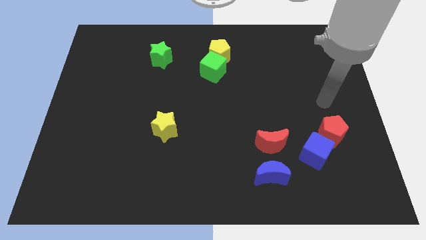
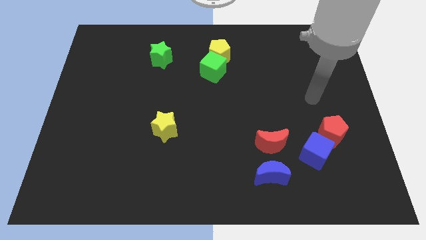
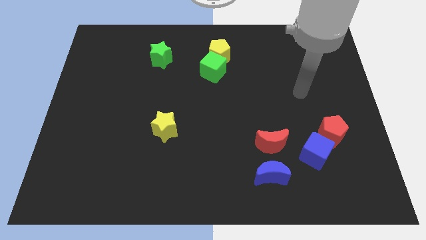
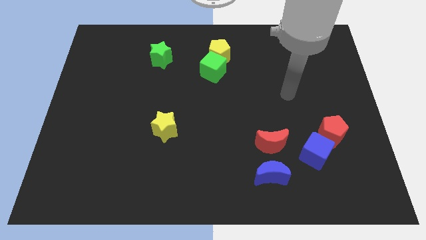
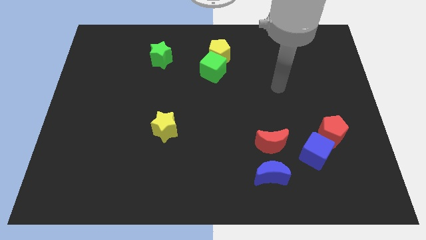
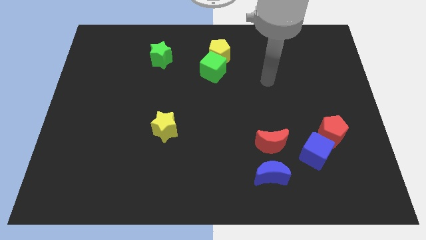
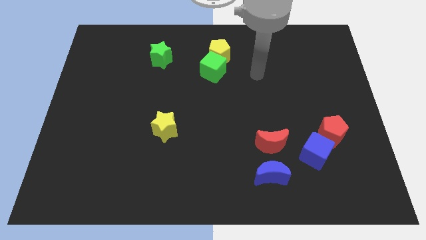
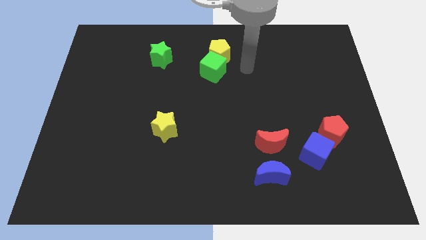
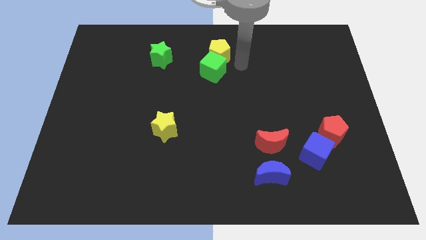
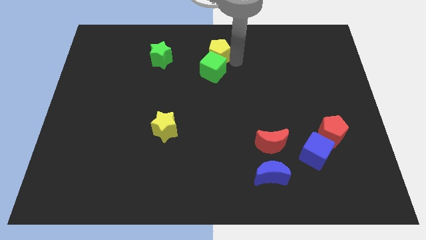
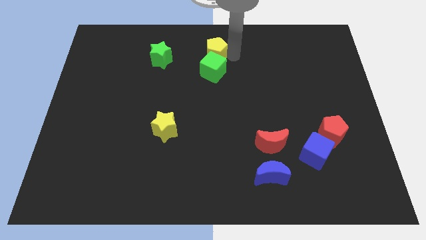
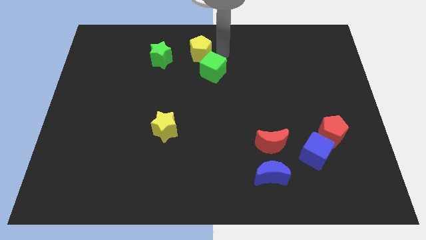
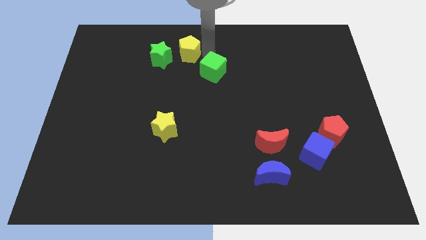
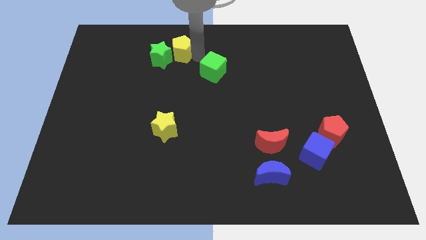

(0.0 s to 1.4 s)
pull the green cube apart from the yellow pentagon

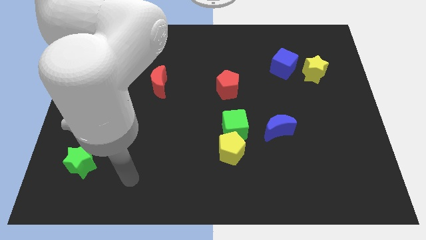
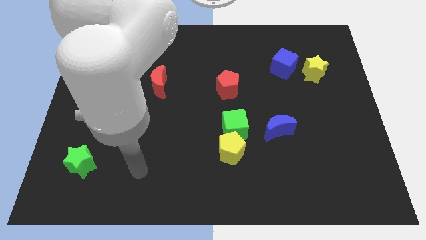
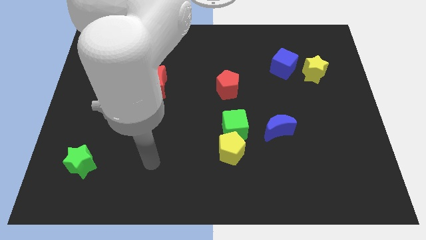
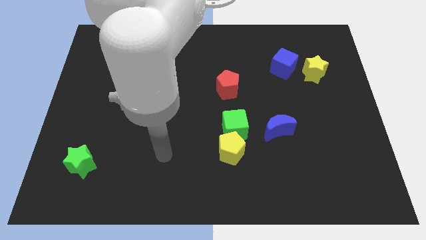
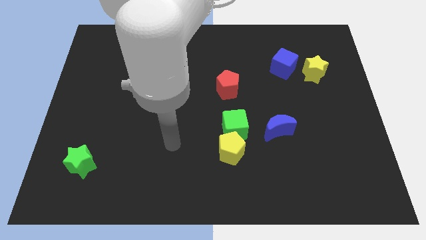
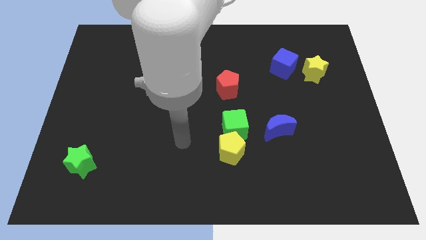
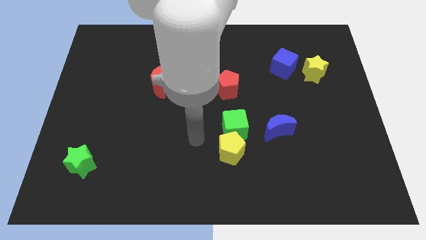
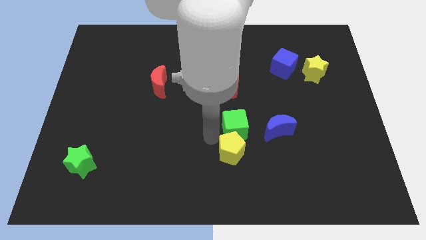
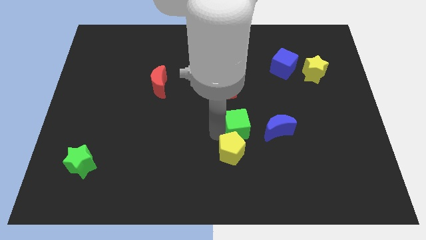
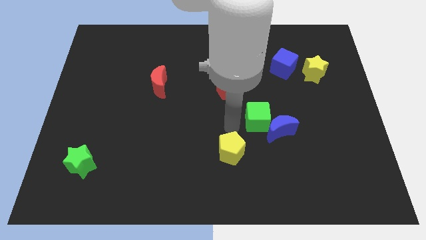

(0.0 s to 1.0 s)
pull the yellow pentagon apart from the green cube

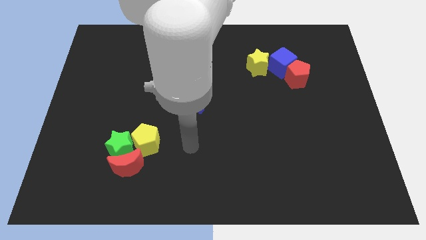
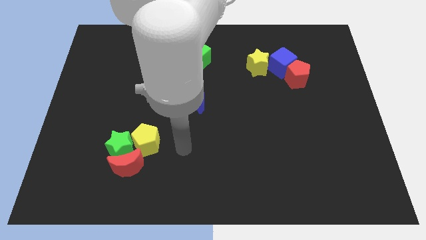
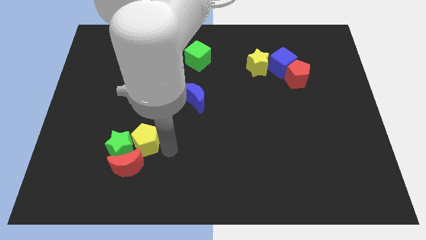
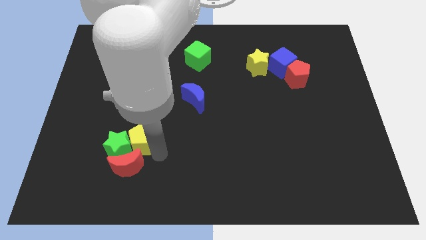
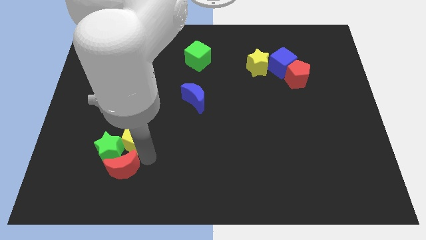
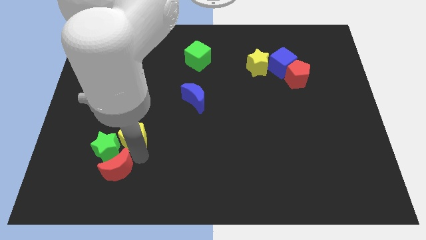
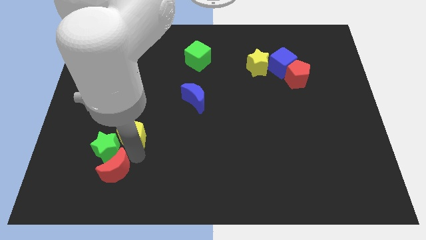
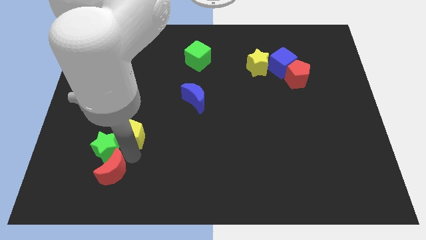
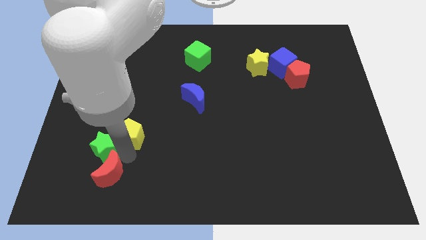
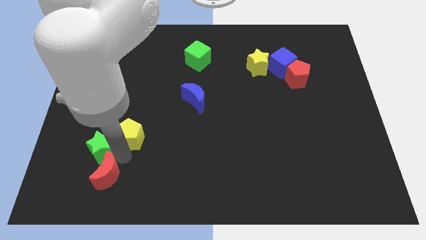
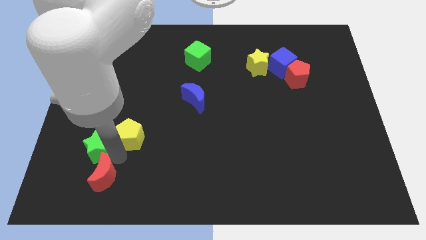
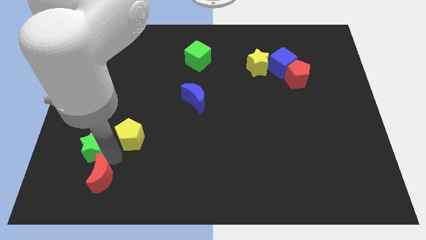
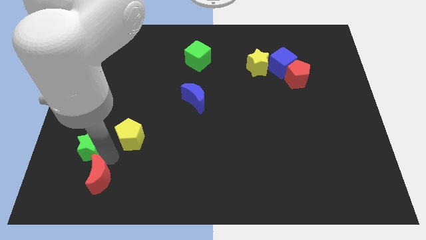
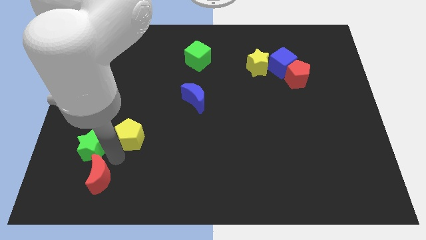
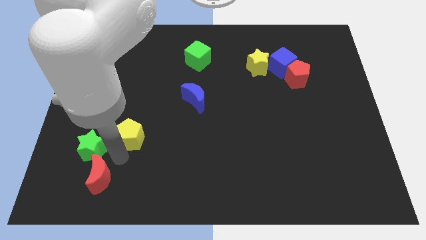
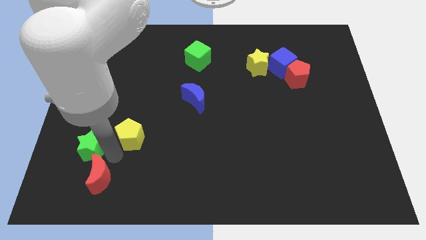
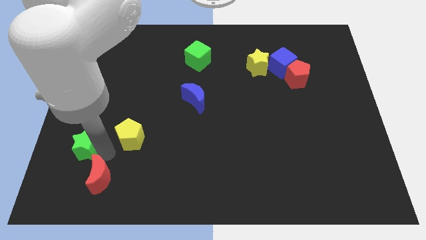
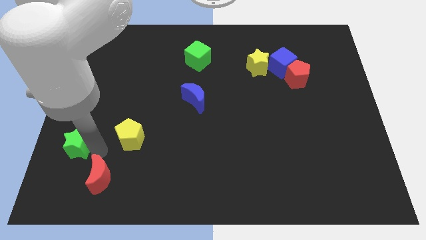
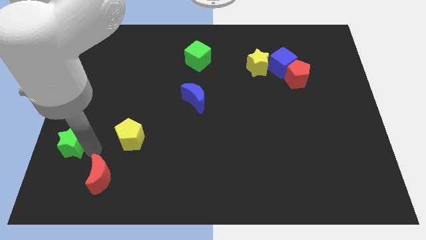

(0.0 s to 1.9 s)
separate the green star from the red moon and yellow pentagon

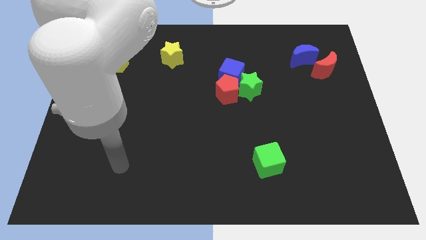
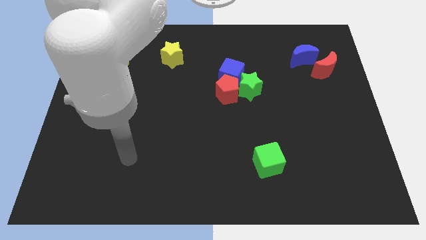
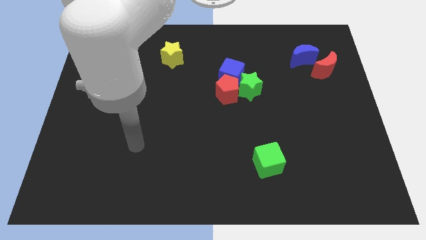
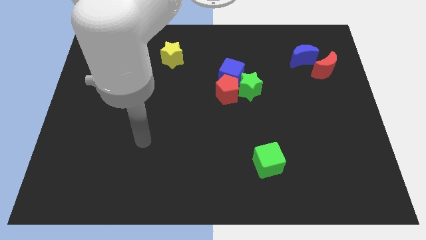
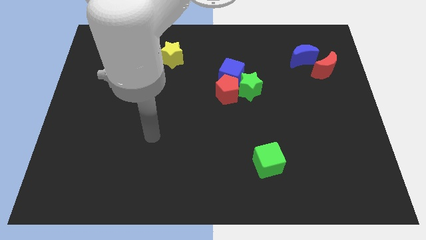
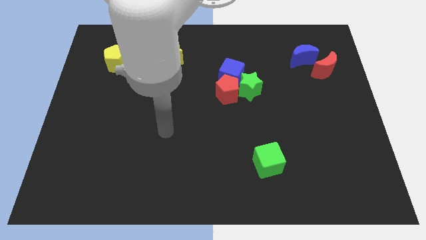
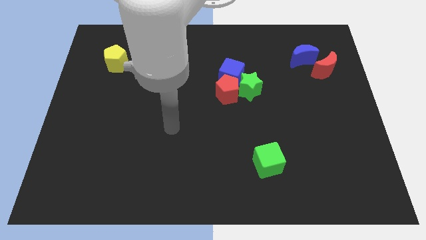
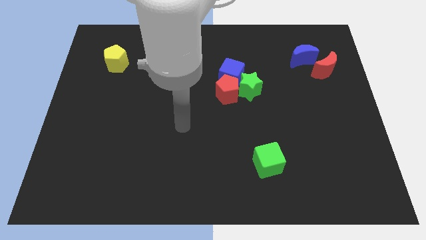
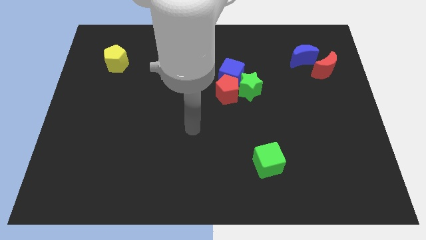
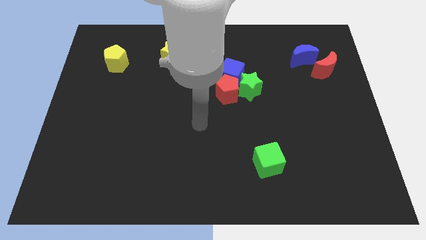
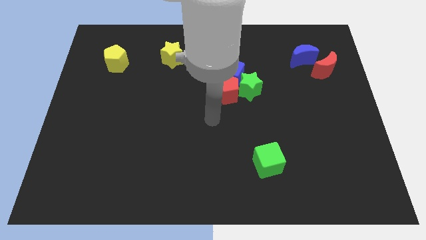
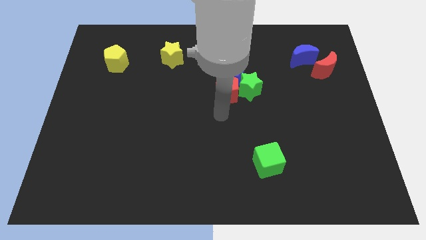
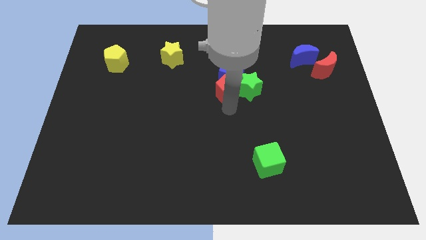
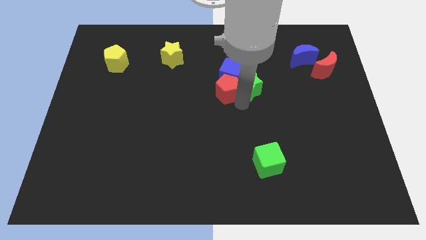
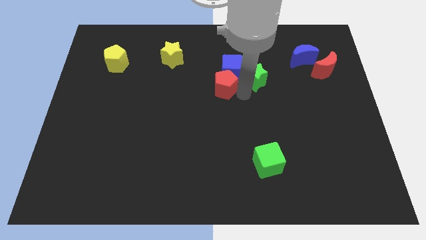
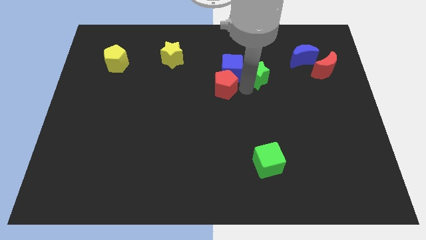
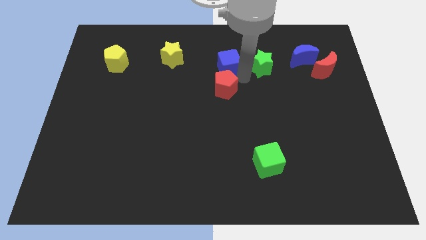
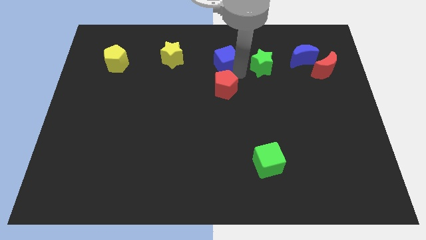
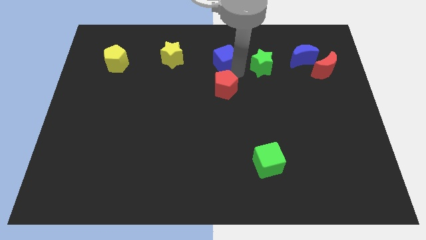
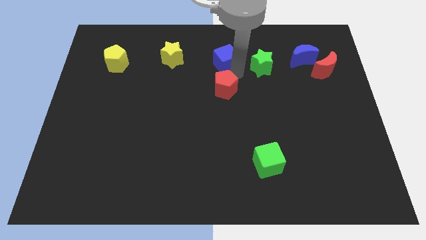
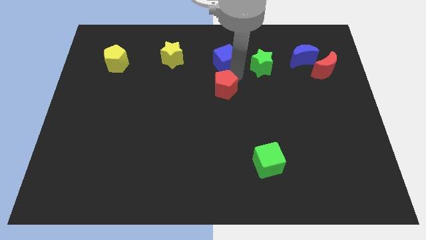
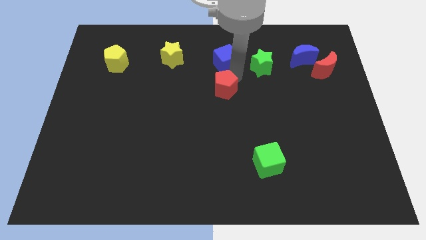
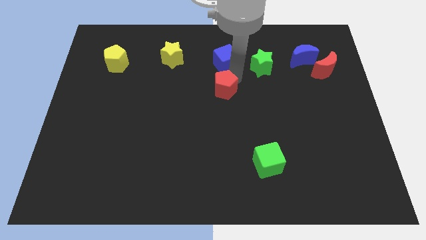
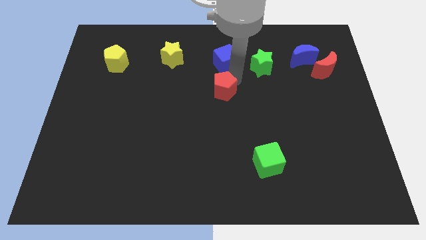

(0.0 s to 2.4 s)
pull the red pentagon apart from the green star and blue cube

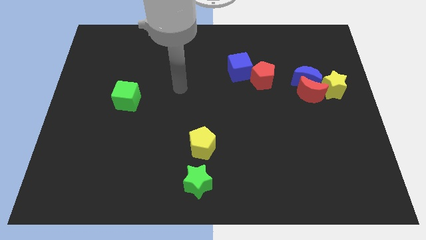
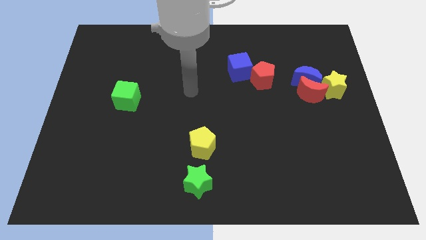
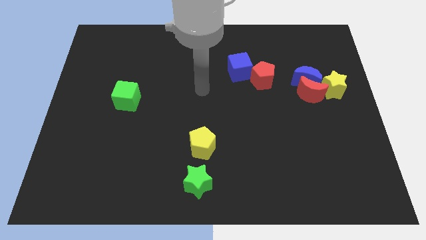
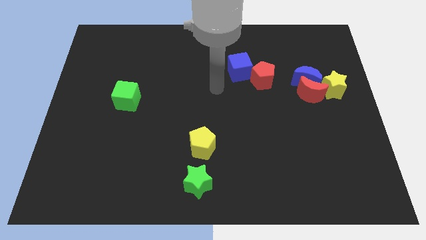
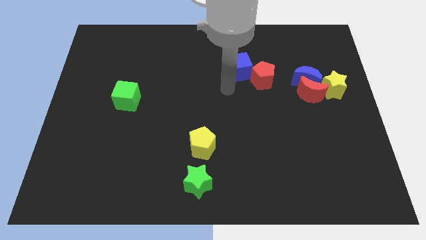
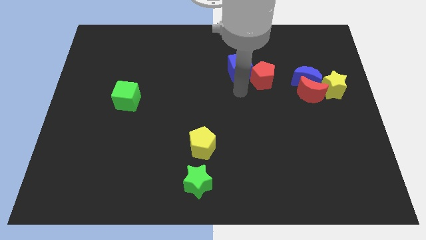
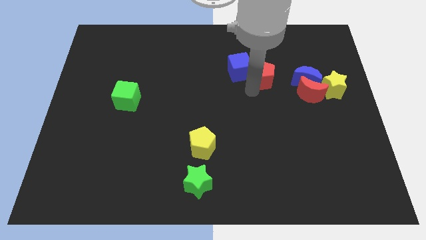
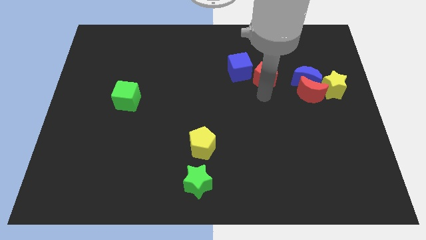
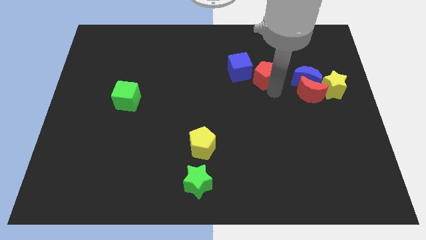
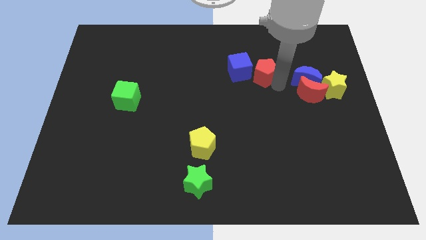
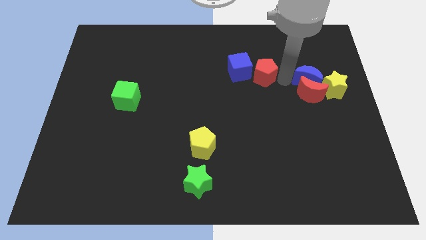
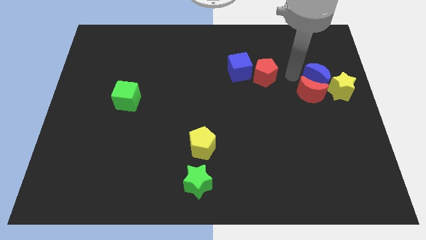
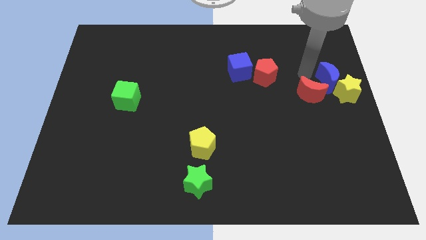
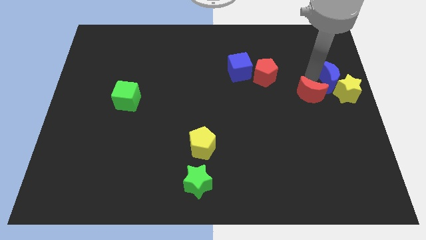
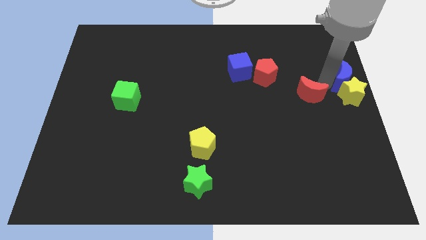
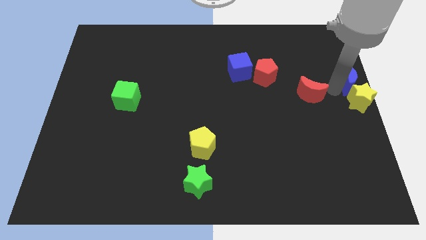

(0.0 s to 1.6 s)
move the red moon away from the blue moon and yellow star

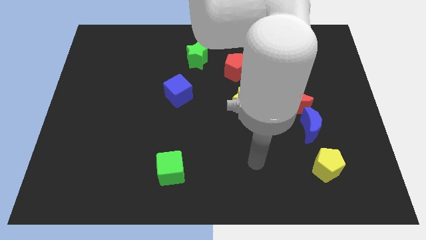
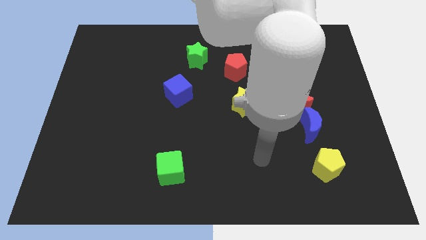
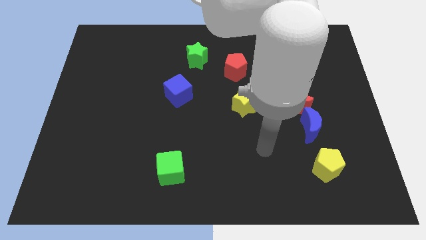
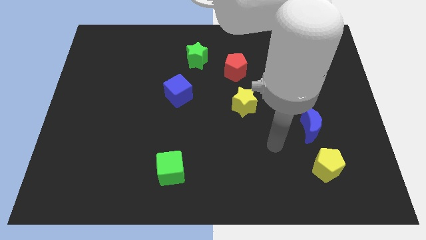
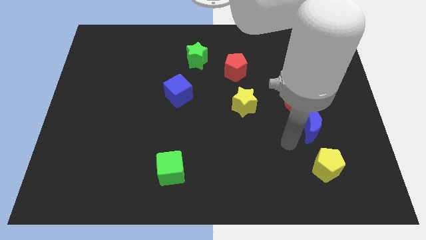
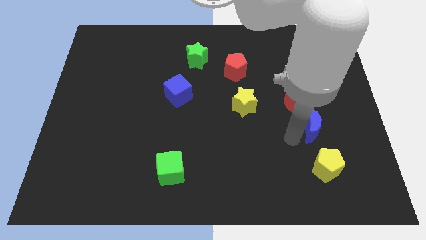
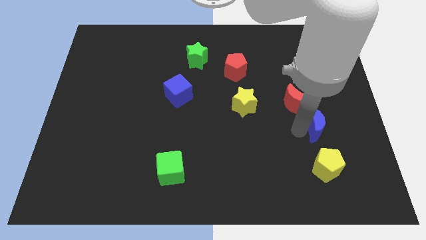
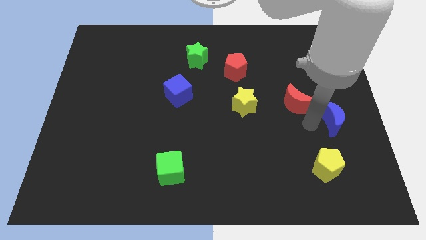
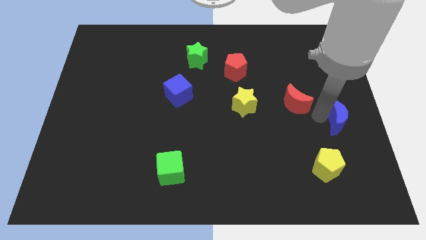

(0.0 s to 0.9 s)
move the red moon away from the blue moon
